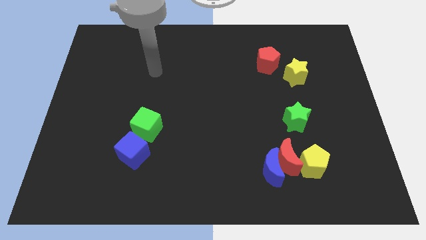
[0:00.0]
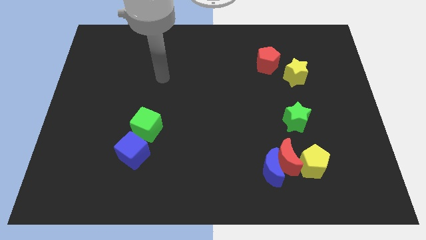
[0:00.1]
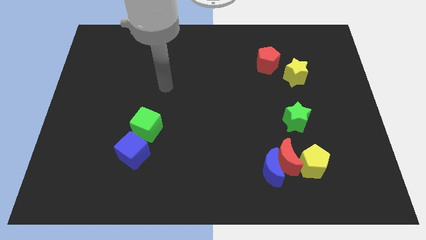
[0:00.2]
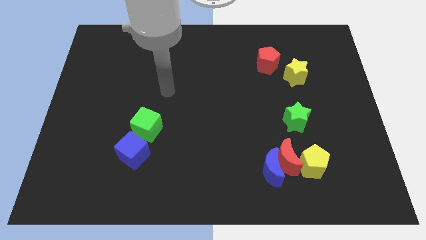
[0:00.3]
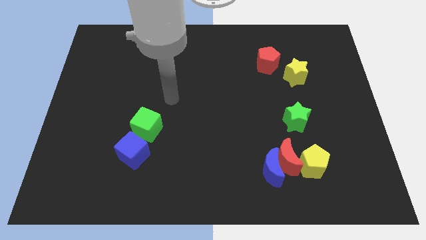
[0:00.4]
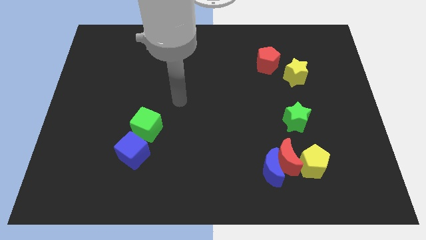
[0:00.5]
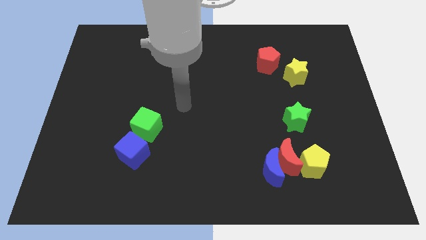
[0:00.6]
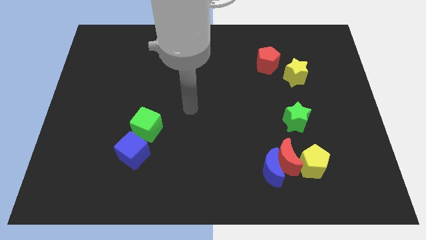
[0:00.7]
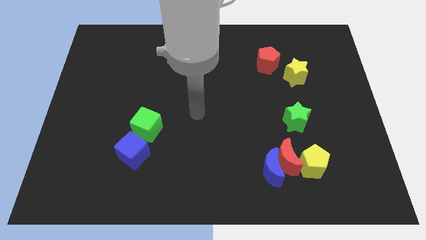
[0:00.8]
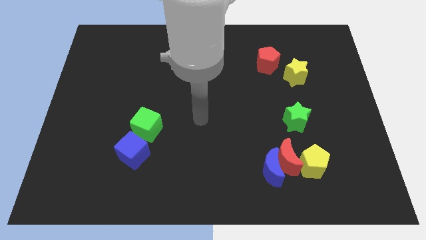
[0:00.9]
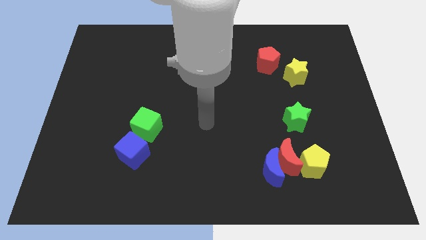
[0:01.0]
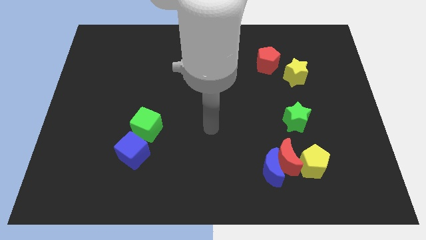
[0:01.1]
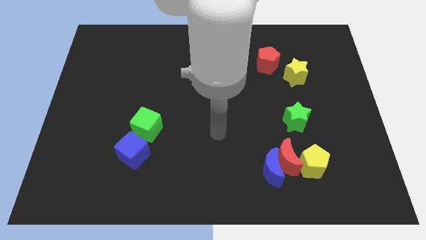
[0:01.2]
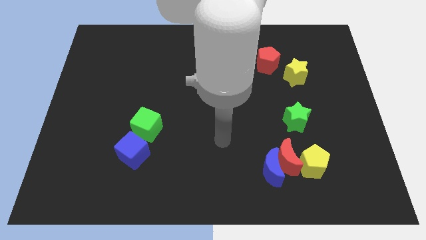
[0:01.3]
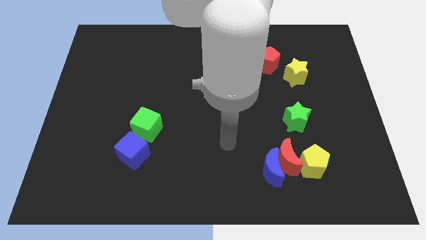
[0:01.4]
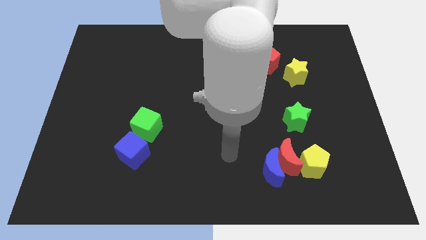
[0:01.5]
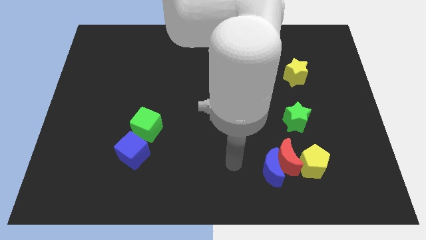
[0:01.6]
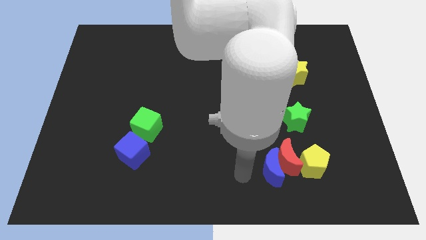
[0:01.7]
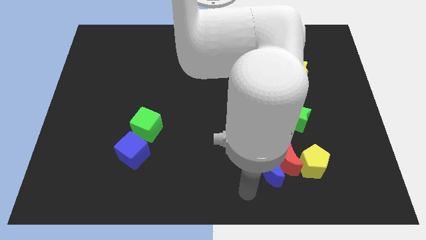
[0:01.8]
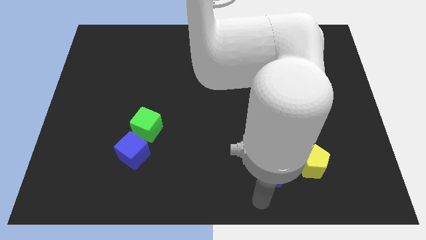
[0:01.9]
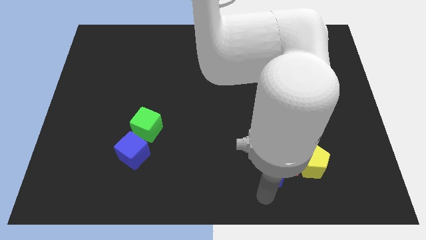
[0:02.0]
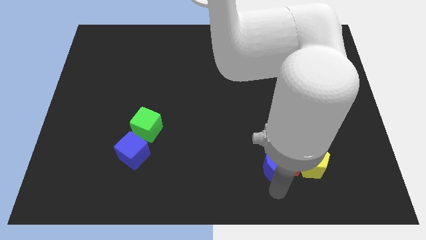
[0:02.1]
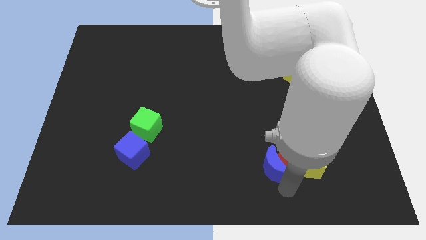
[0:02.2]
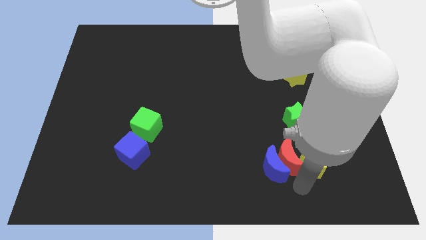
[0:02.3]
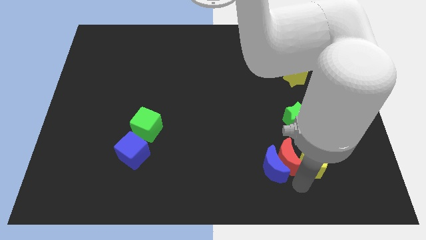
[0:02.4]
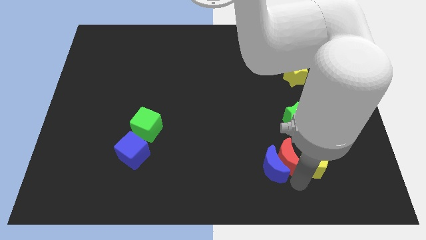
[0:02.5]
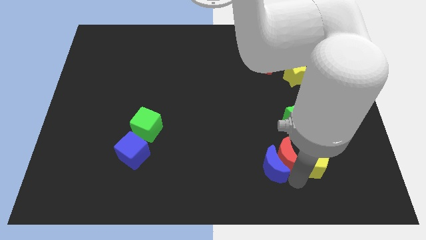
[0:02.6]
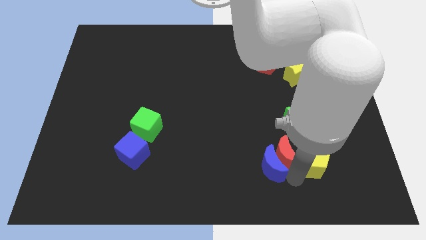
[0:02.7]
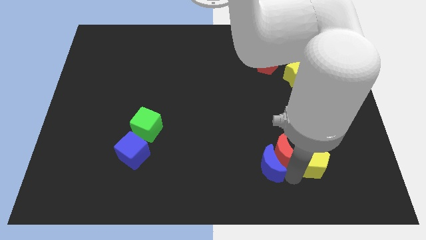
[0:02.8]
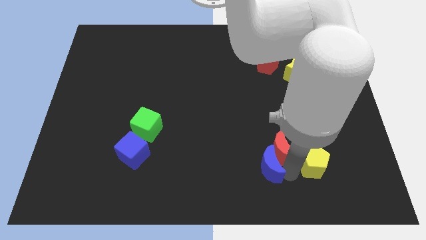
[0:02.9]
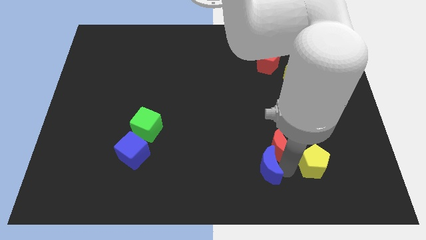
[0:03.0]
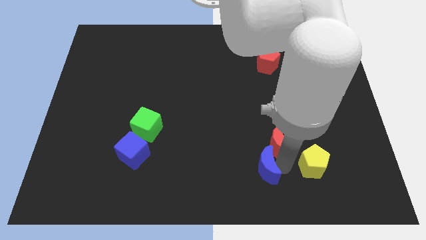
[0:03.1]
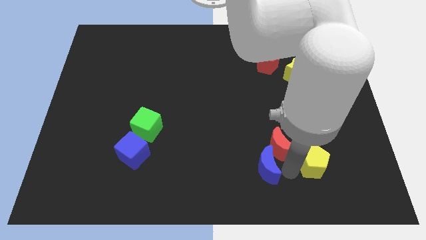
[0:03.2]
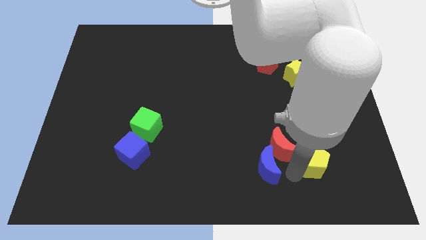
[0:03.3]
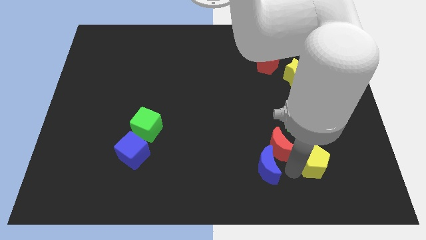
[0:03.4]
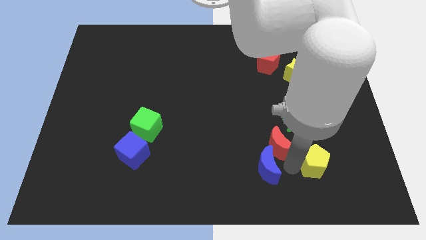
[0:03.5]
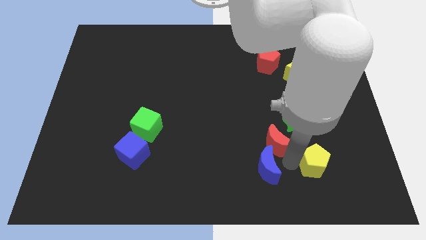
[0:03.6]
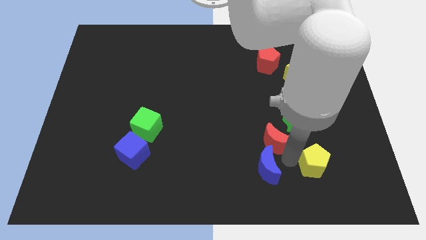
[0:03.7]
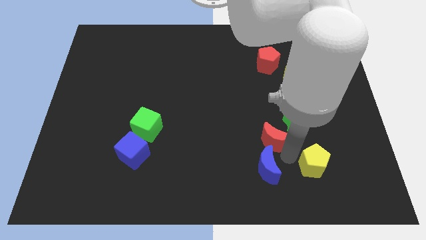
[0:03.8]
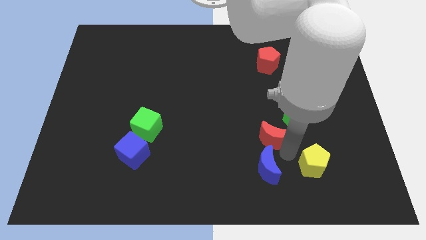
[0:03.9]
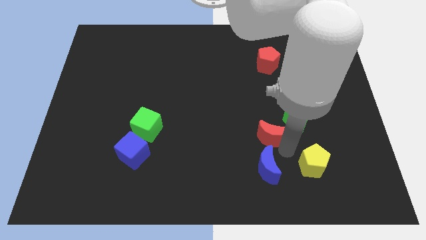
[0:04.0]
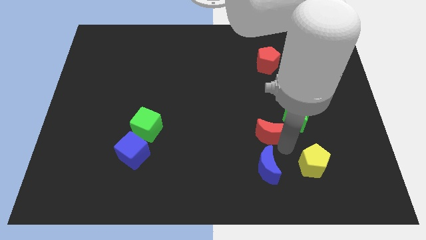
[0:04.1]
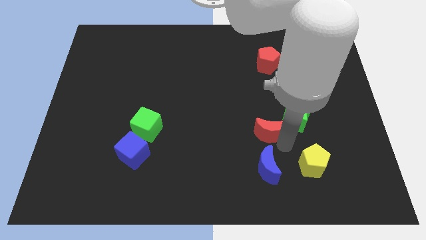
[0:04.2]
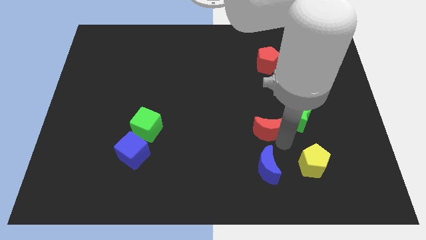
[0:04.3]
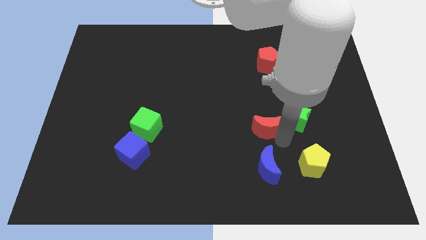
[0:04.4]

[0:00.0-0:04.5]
separate the red moon from the blue moon and yellow pentagon

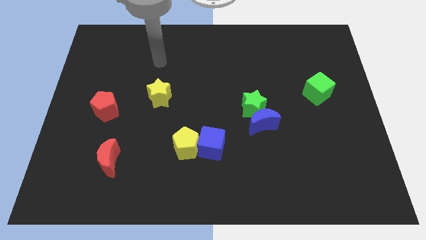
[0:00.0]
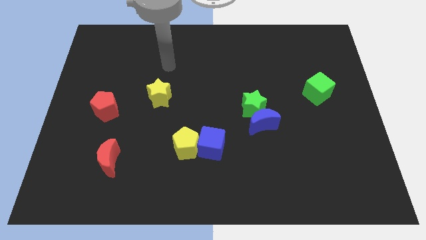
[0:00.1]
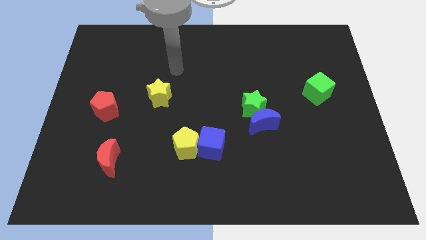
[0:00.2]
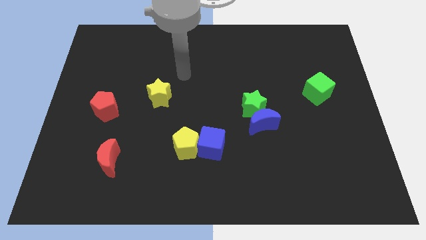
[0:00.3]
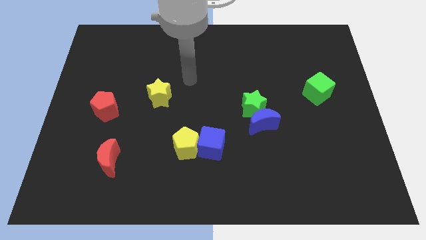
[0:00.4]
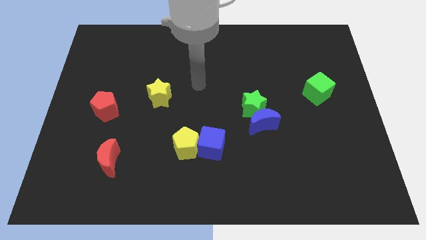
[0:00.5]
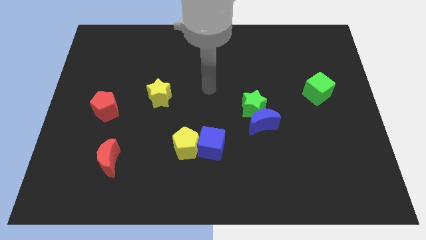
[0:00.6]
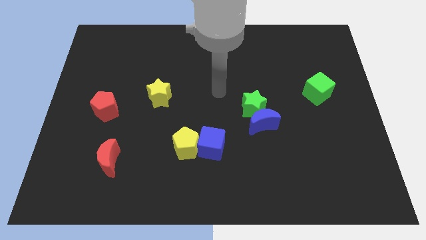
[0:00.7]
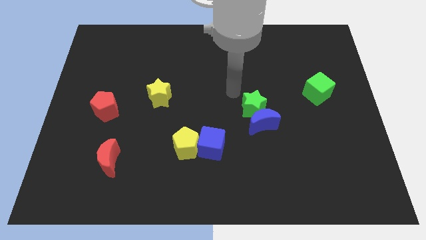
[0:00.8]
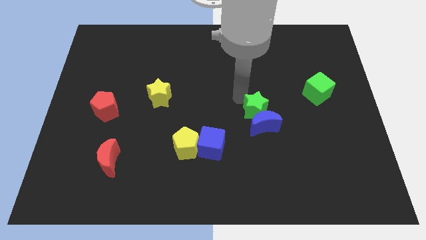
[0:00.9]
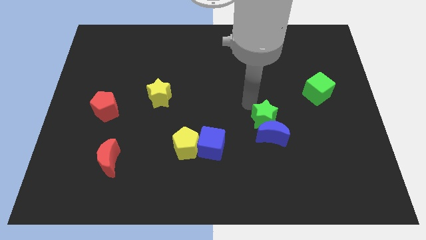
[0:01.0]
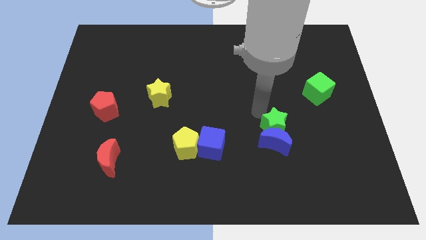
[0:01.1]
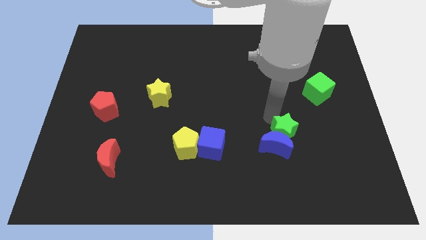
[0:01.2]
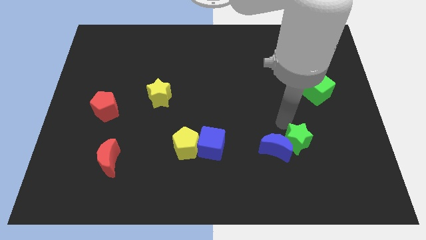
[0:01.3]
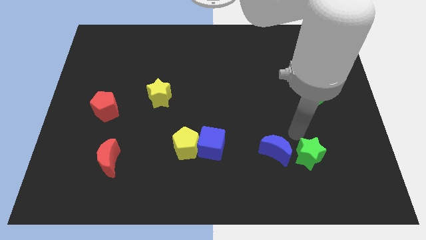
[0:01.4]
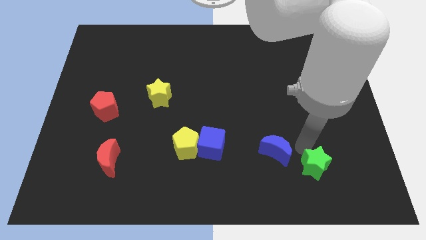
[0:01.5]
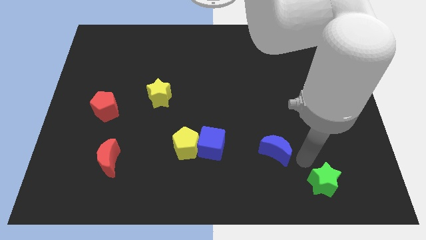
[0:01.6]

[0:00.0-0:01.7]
move the blue moon away from the green star

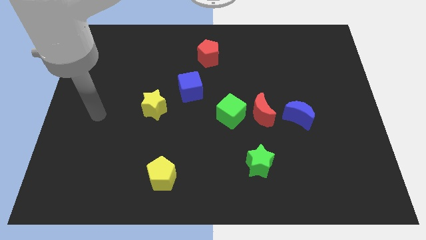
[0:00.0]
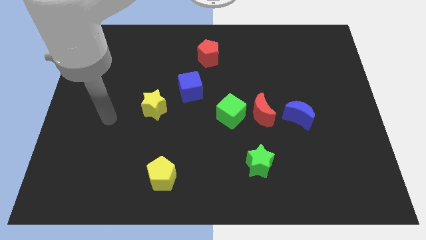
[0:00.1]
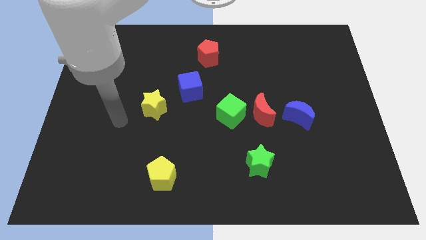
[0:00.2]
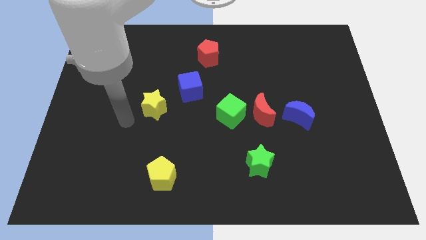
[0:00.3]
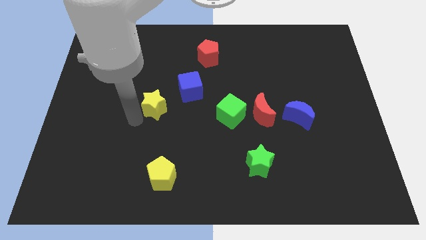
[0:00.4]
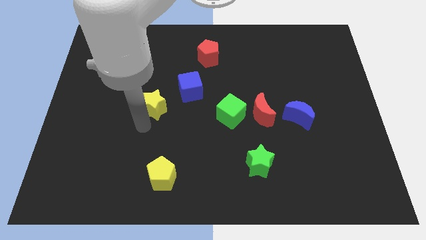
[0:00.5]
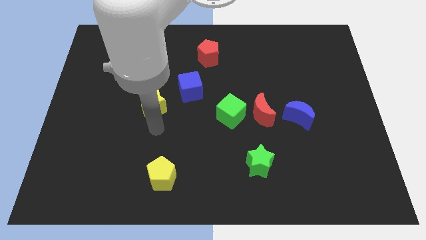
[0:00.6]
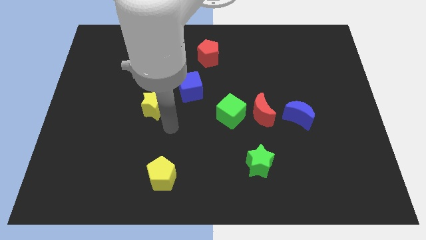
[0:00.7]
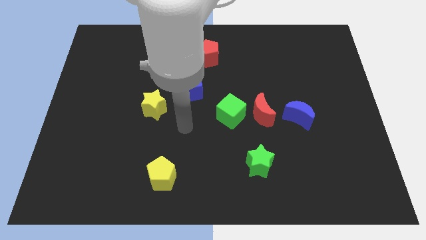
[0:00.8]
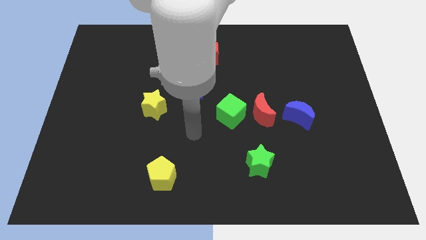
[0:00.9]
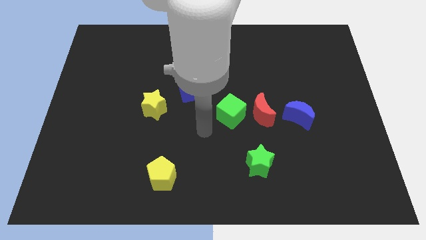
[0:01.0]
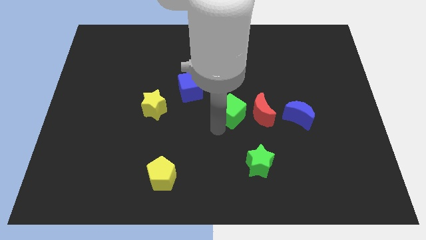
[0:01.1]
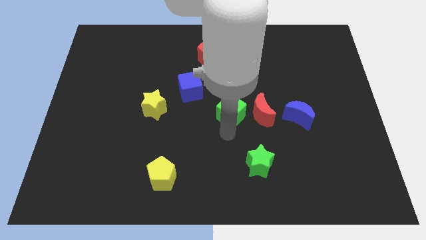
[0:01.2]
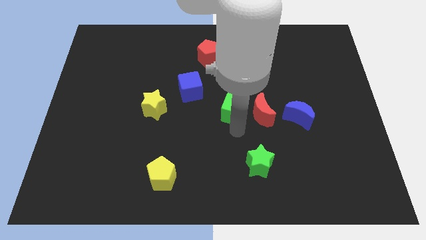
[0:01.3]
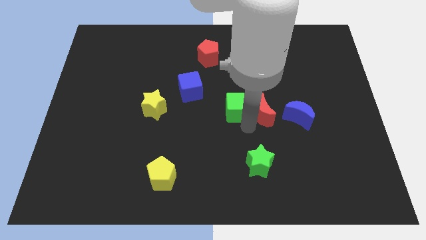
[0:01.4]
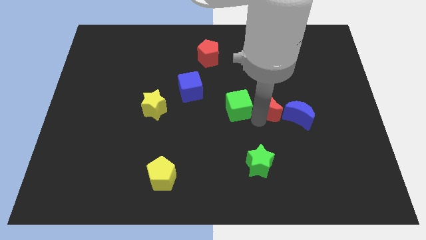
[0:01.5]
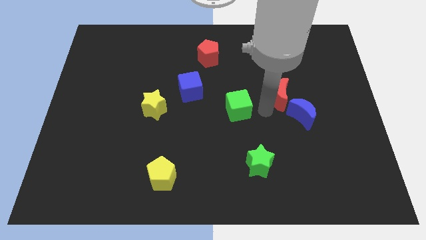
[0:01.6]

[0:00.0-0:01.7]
separate the green cube from the red moon

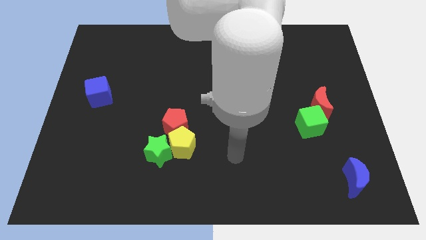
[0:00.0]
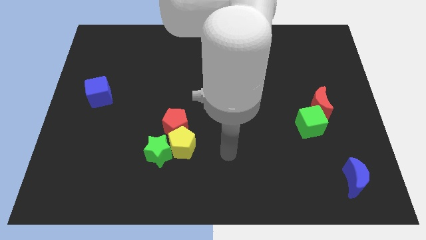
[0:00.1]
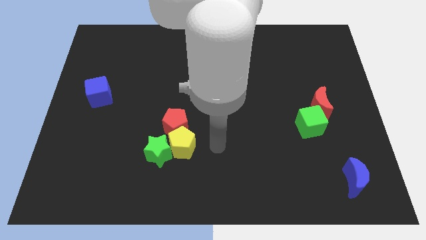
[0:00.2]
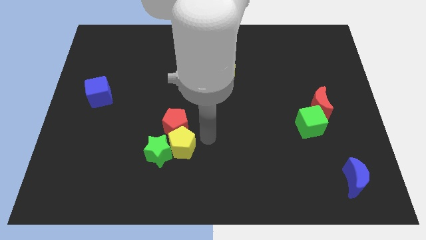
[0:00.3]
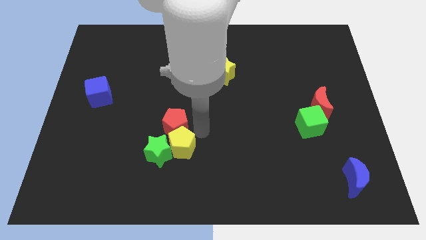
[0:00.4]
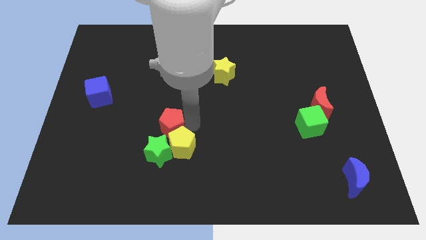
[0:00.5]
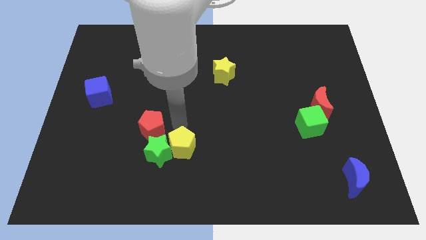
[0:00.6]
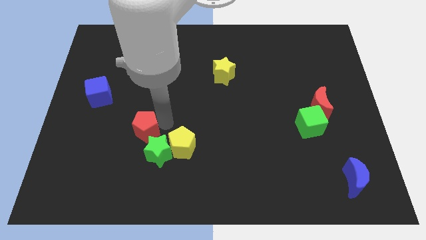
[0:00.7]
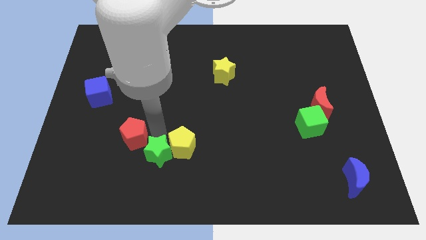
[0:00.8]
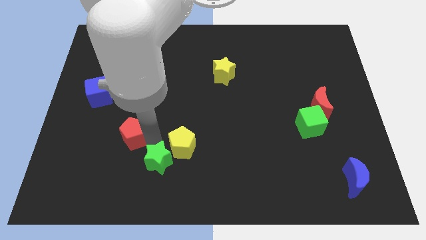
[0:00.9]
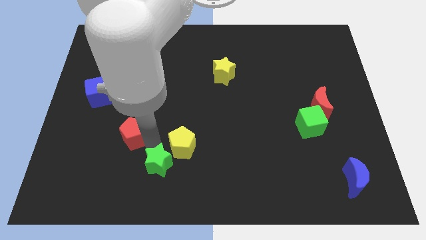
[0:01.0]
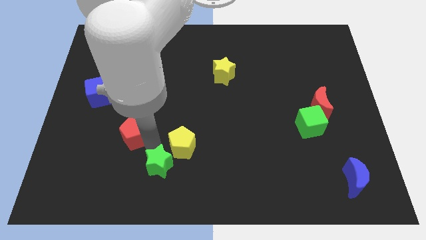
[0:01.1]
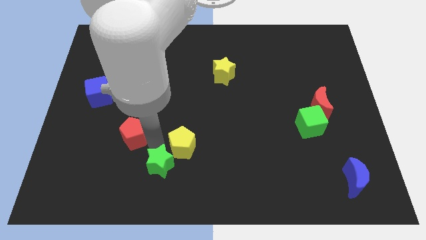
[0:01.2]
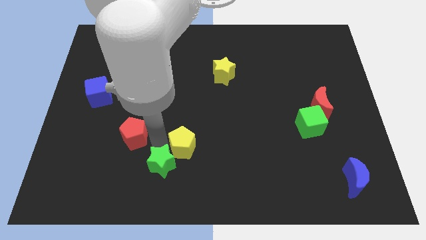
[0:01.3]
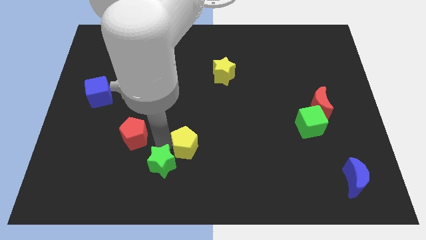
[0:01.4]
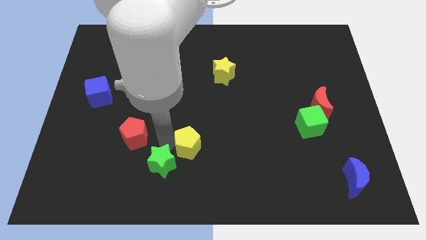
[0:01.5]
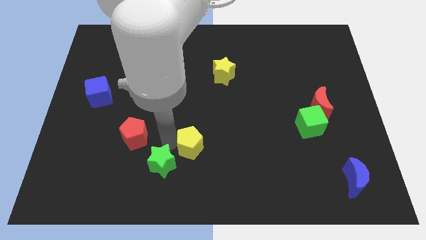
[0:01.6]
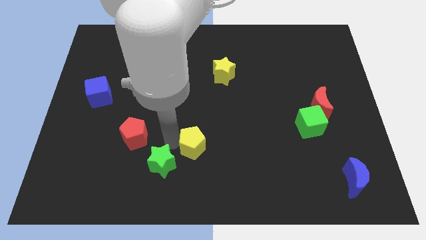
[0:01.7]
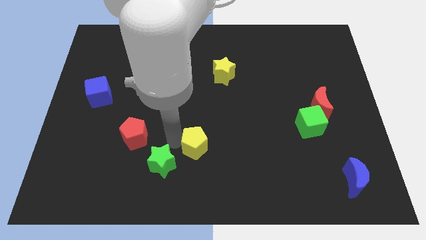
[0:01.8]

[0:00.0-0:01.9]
pull the yellow pentagon apart from the green star and red pentagon
